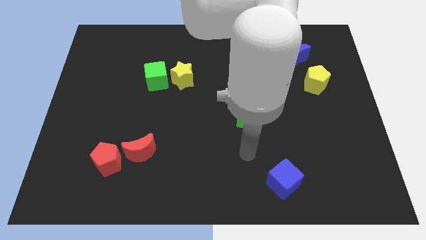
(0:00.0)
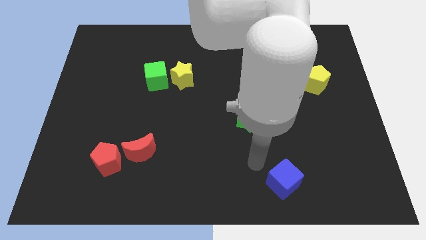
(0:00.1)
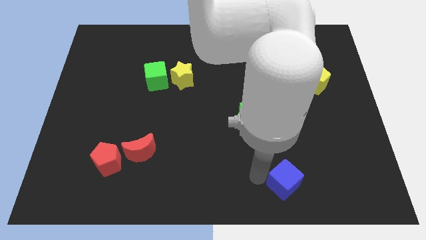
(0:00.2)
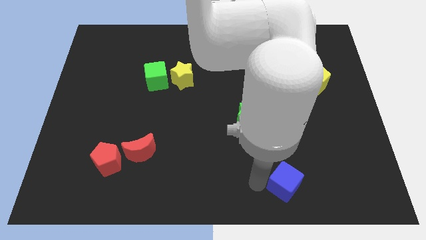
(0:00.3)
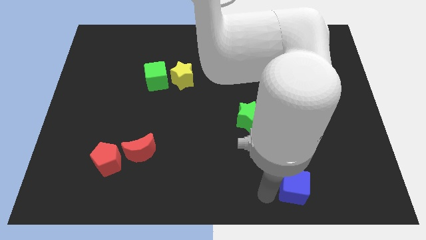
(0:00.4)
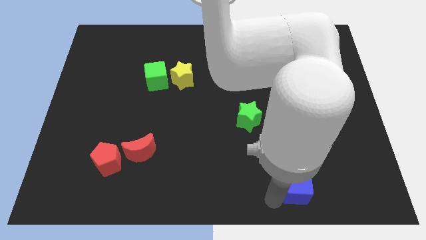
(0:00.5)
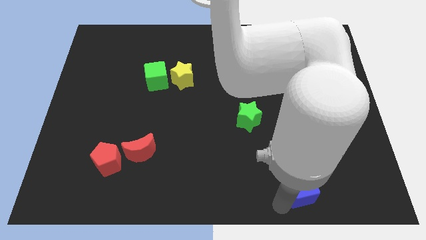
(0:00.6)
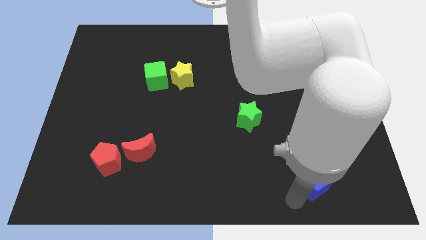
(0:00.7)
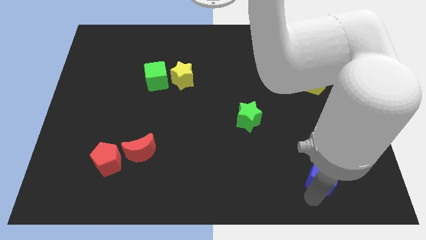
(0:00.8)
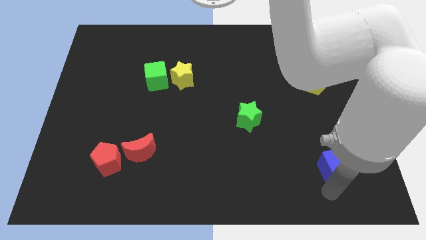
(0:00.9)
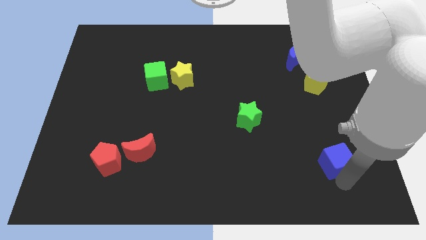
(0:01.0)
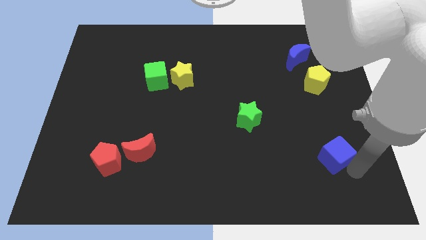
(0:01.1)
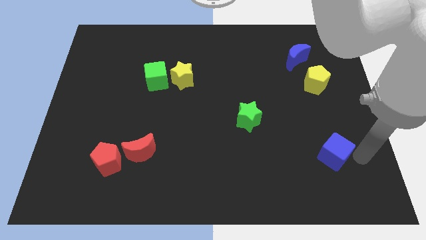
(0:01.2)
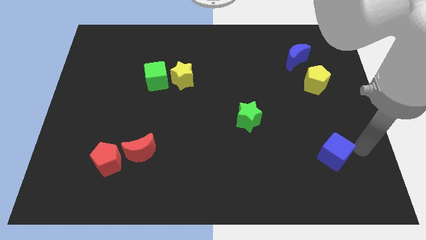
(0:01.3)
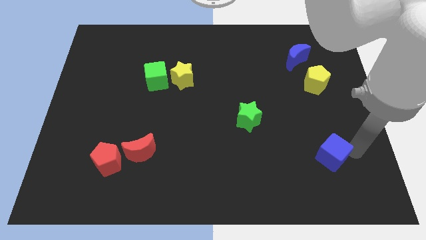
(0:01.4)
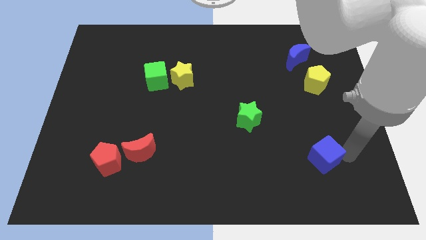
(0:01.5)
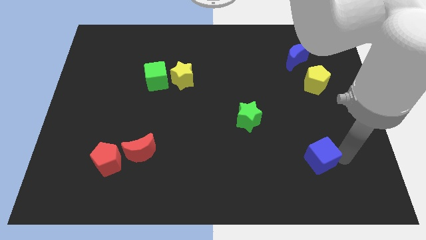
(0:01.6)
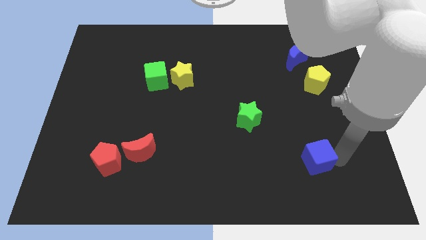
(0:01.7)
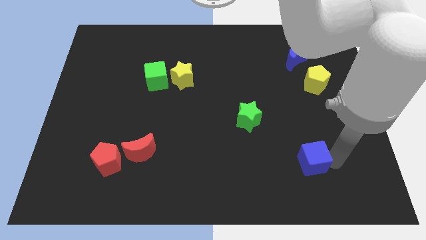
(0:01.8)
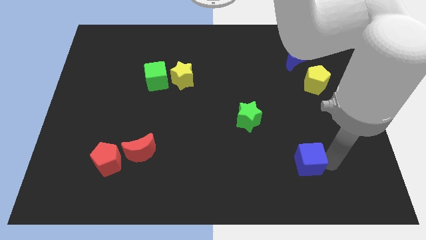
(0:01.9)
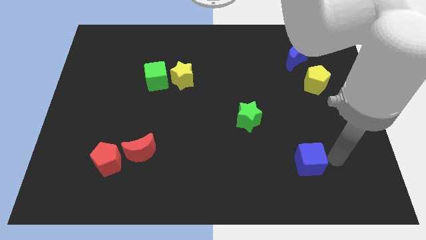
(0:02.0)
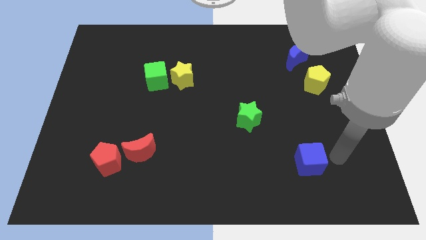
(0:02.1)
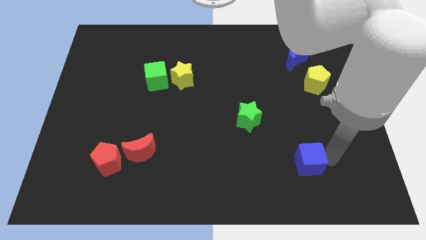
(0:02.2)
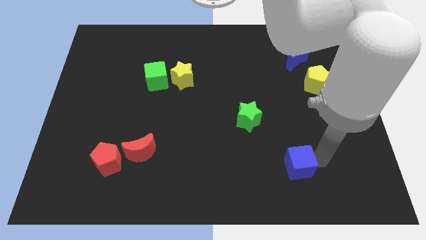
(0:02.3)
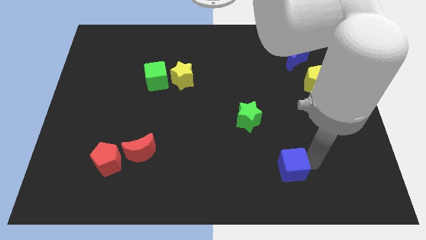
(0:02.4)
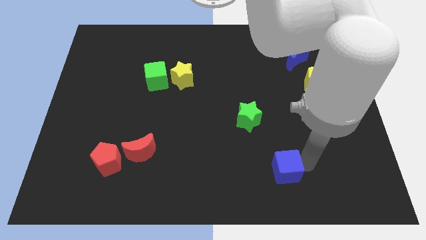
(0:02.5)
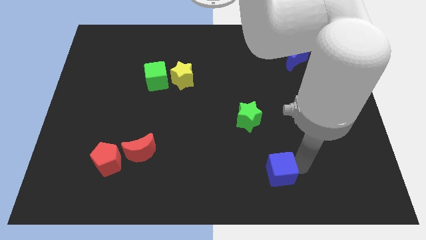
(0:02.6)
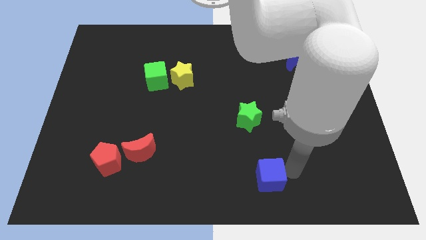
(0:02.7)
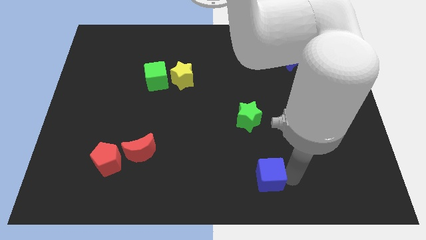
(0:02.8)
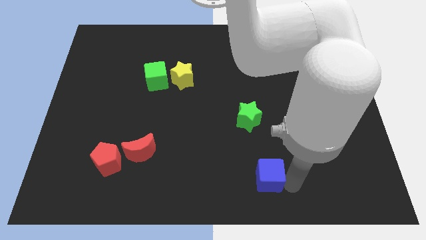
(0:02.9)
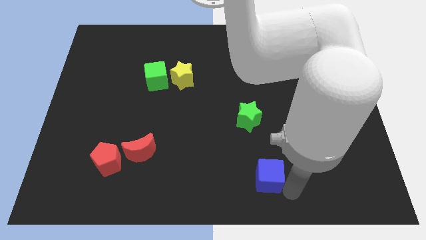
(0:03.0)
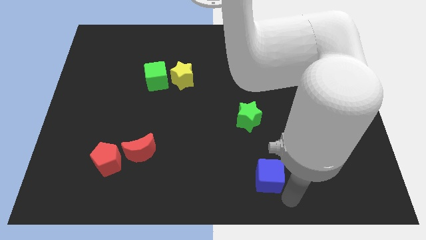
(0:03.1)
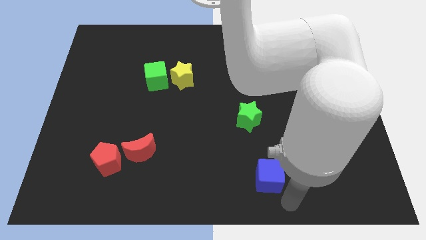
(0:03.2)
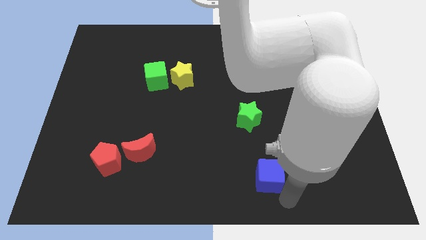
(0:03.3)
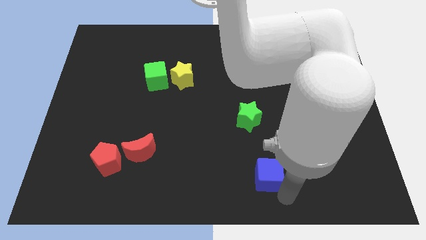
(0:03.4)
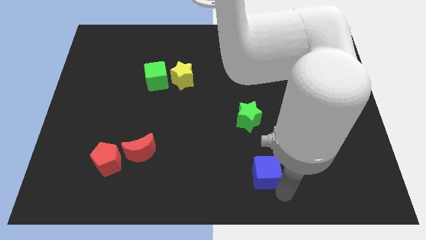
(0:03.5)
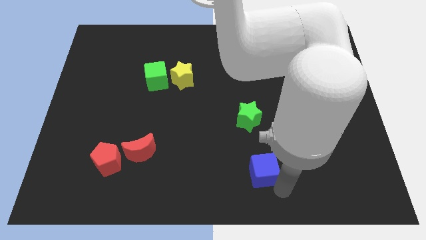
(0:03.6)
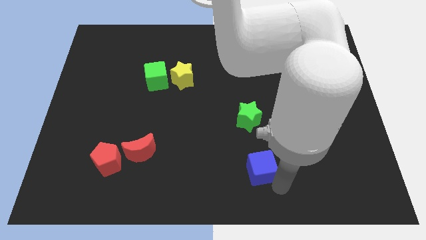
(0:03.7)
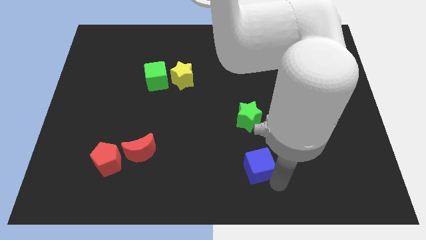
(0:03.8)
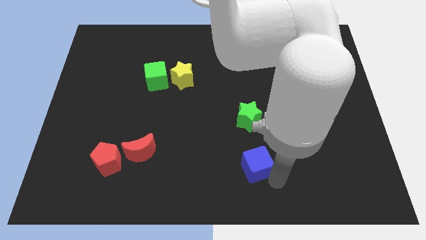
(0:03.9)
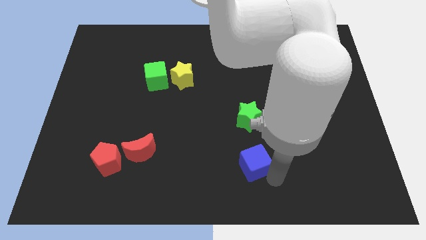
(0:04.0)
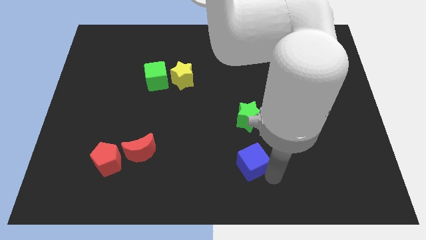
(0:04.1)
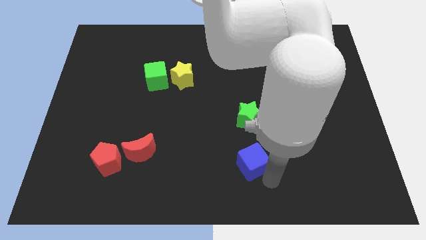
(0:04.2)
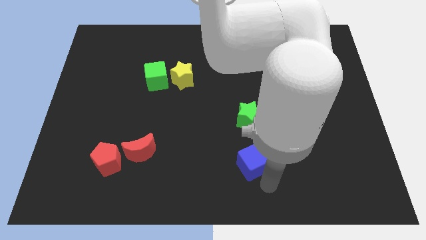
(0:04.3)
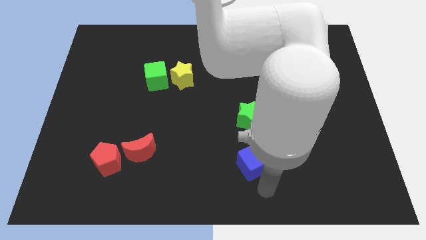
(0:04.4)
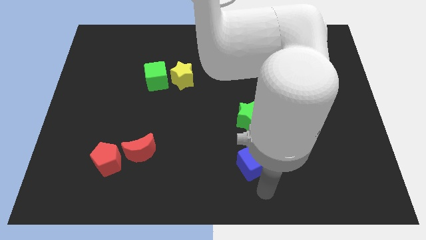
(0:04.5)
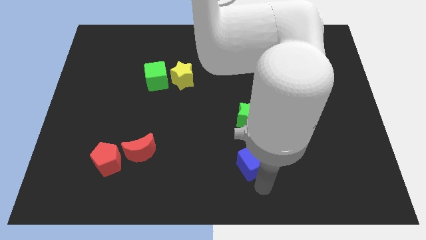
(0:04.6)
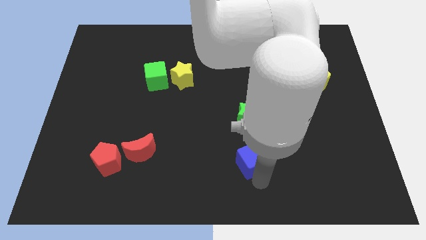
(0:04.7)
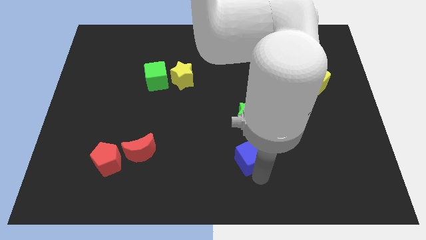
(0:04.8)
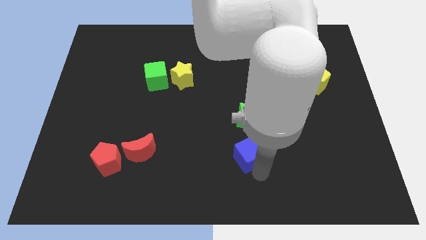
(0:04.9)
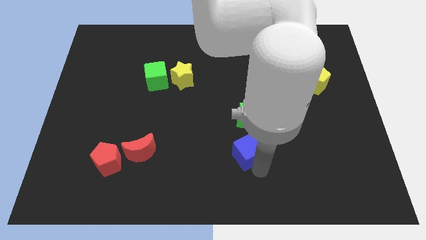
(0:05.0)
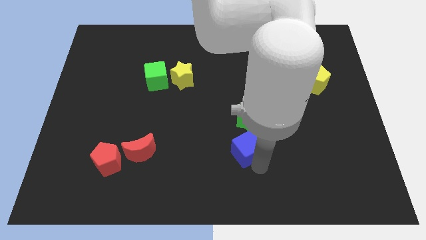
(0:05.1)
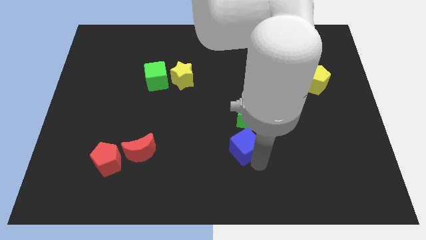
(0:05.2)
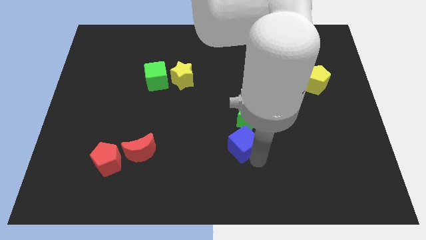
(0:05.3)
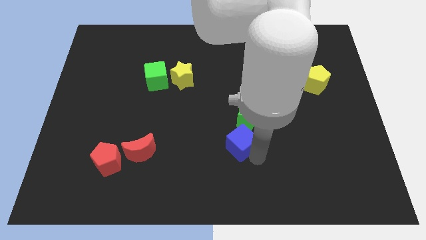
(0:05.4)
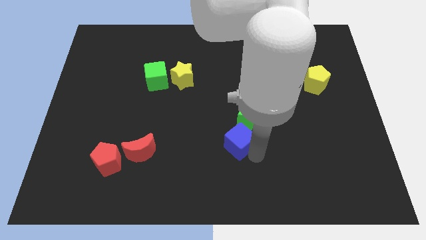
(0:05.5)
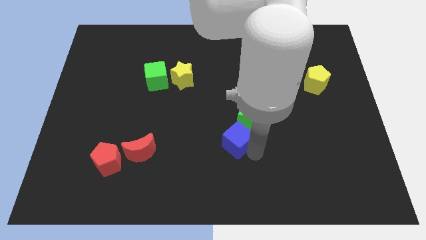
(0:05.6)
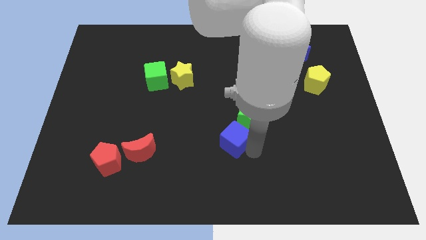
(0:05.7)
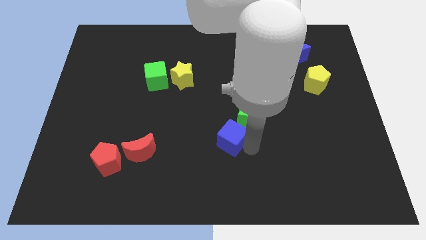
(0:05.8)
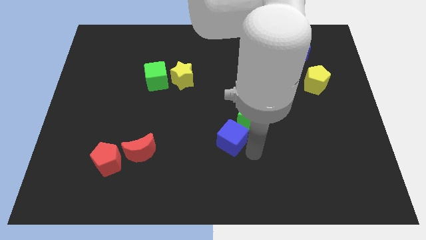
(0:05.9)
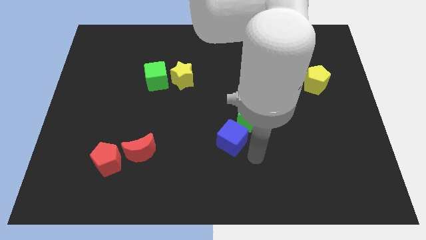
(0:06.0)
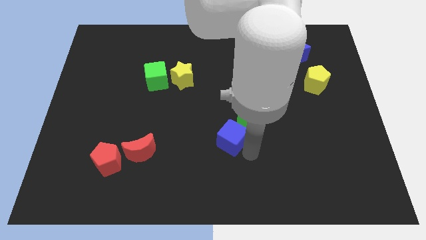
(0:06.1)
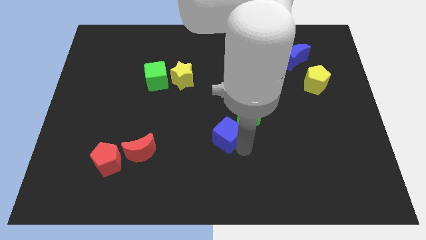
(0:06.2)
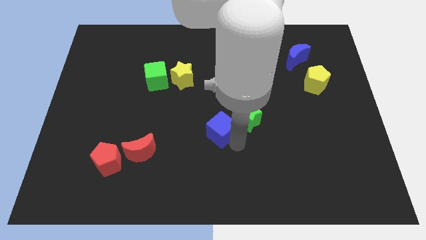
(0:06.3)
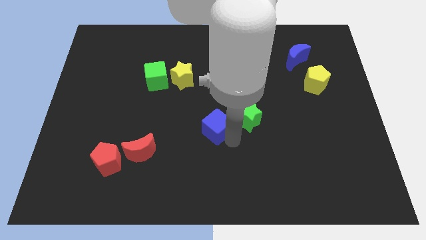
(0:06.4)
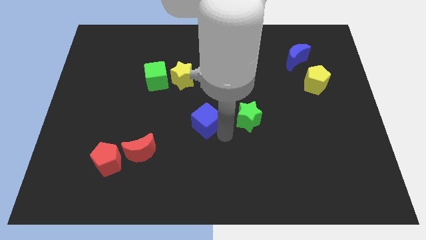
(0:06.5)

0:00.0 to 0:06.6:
push the blue cube upwards and left

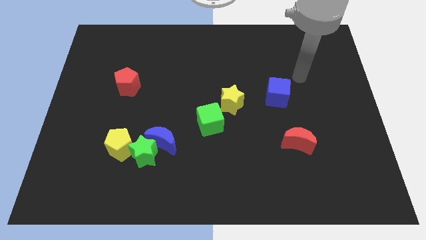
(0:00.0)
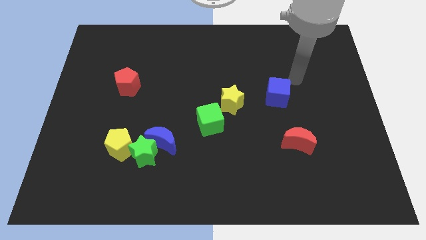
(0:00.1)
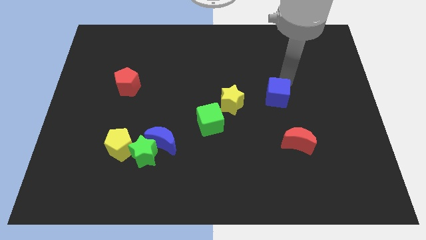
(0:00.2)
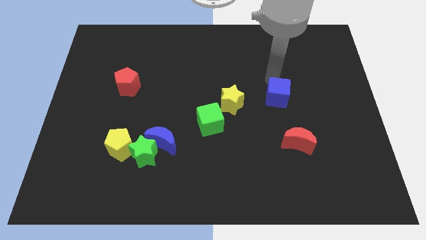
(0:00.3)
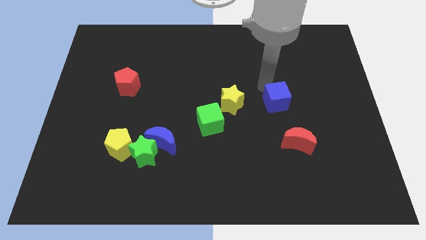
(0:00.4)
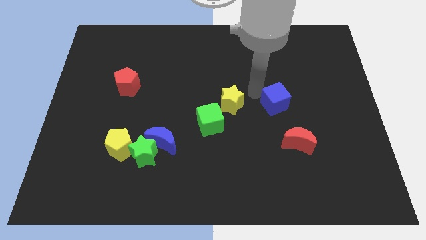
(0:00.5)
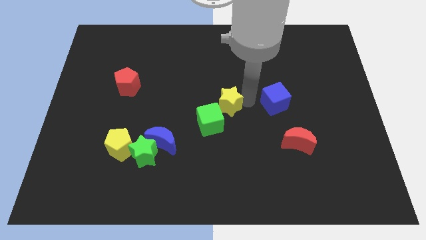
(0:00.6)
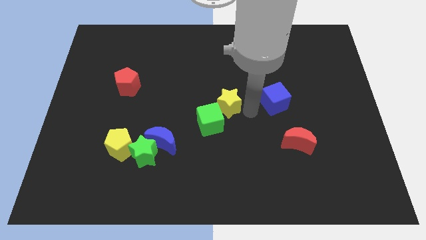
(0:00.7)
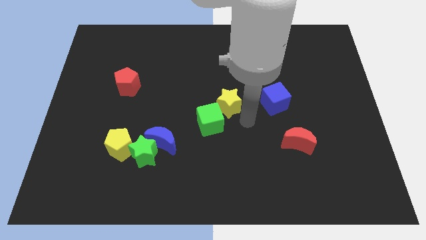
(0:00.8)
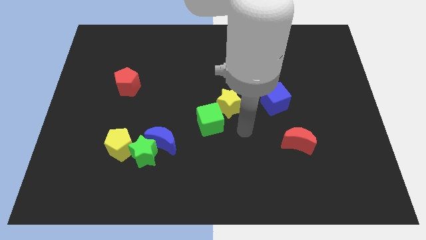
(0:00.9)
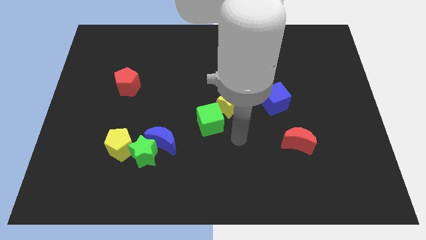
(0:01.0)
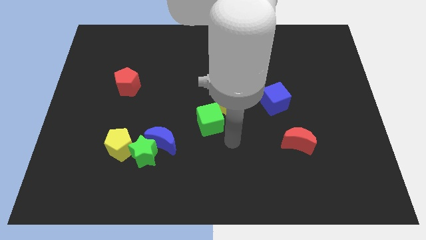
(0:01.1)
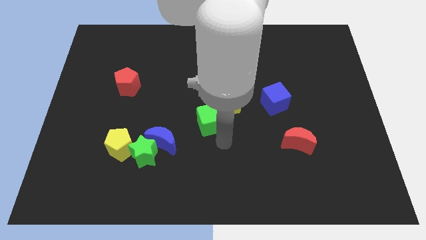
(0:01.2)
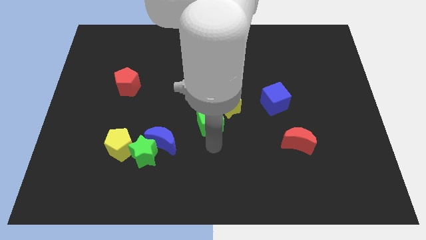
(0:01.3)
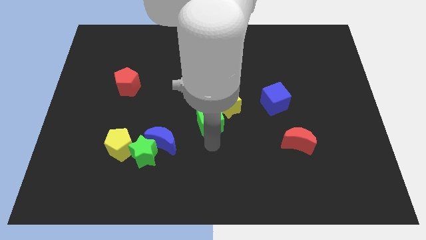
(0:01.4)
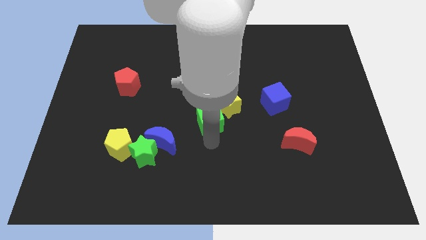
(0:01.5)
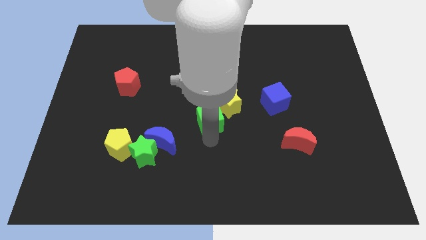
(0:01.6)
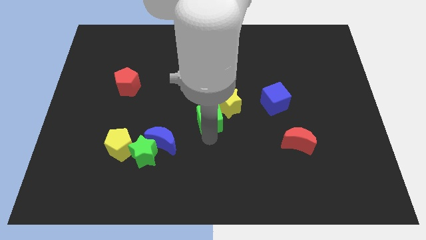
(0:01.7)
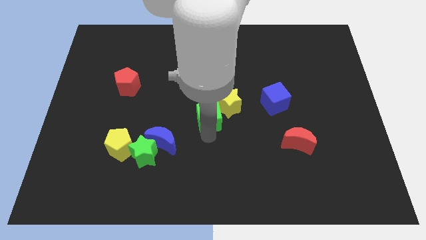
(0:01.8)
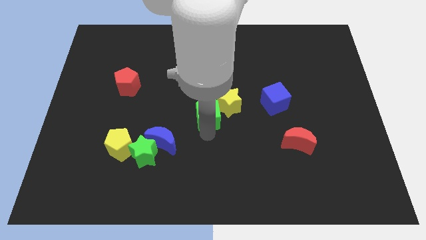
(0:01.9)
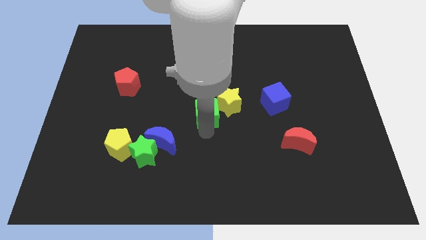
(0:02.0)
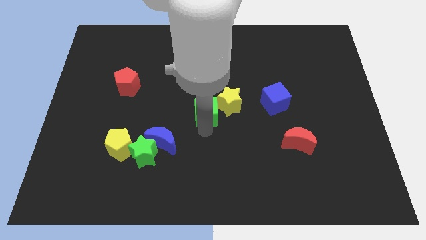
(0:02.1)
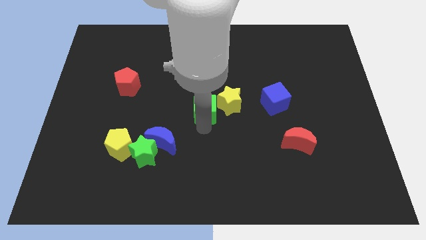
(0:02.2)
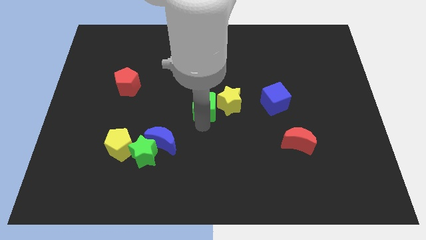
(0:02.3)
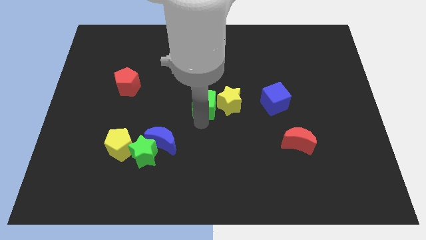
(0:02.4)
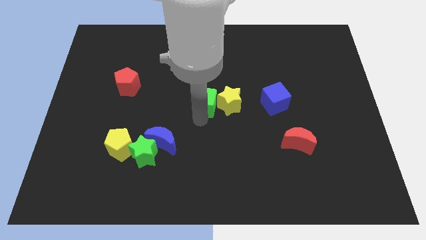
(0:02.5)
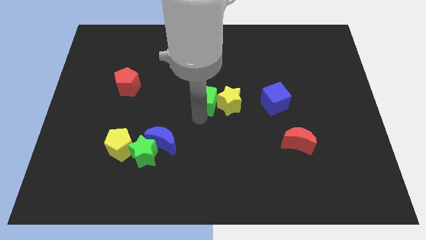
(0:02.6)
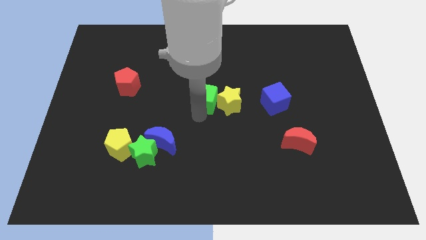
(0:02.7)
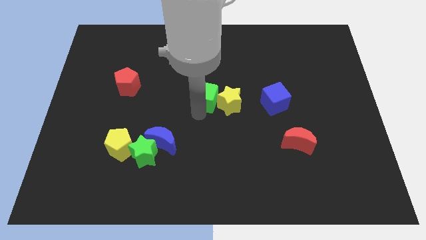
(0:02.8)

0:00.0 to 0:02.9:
slide the green cube slightly upwards
